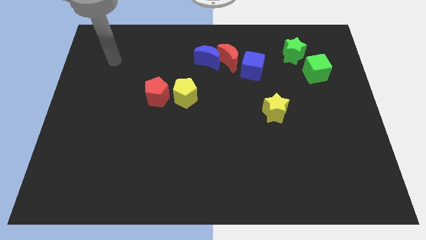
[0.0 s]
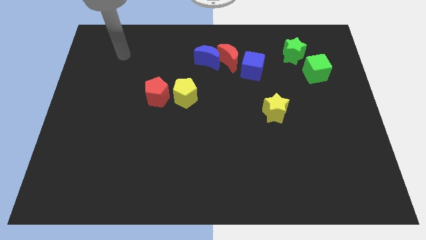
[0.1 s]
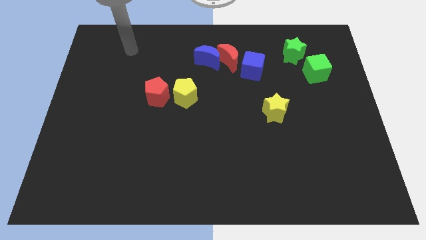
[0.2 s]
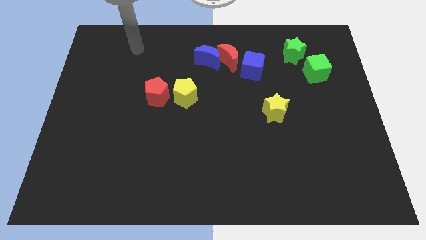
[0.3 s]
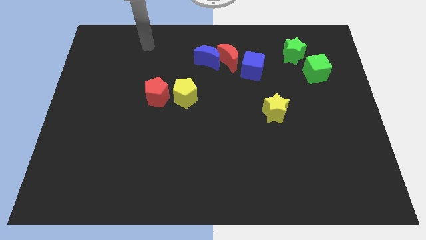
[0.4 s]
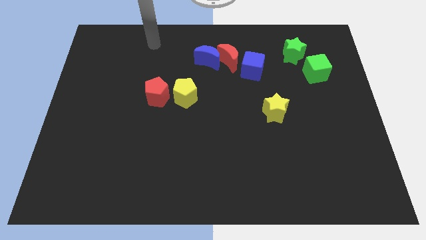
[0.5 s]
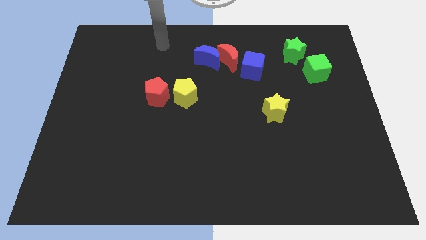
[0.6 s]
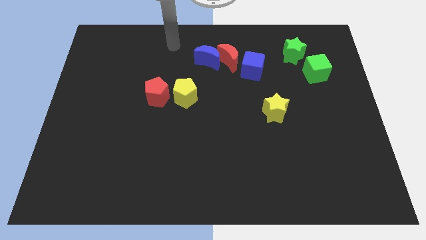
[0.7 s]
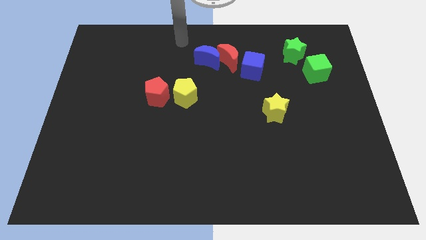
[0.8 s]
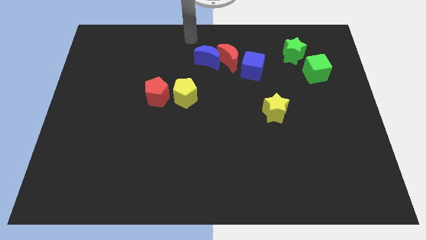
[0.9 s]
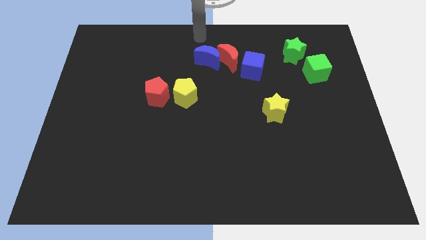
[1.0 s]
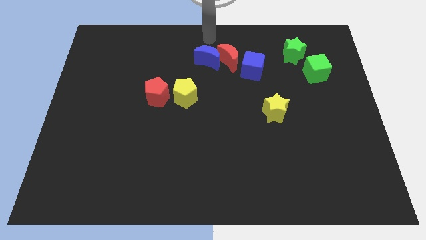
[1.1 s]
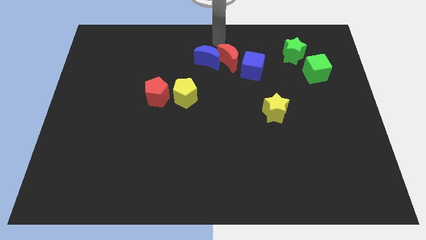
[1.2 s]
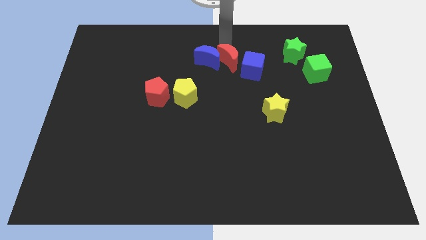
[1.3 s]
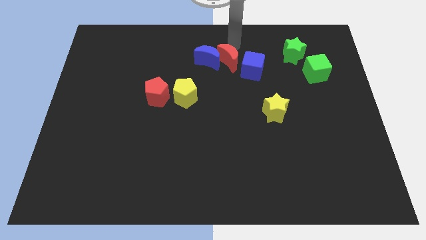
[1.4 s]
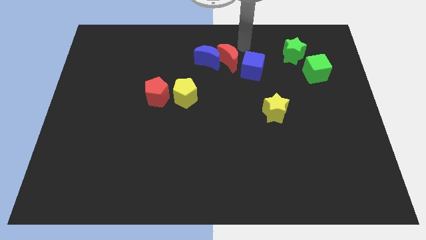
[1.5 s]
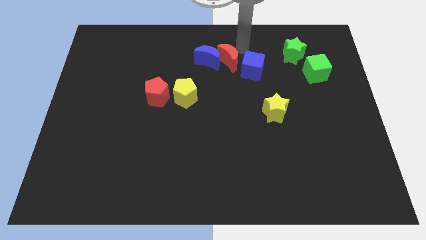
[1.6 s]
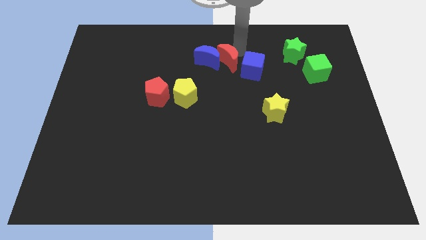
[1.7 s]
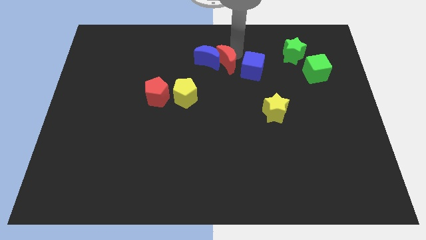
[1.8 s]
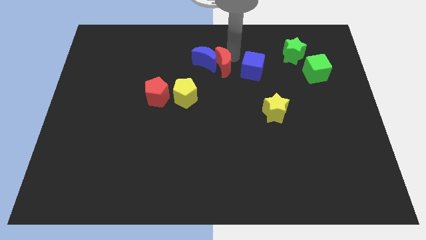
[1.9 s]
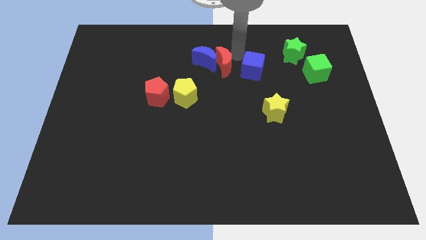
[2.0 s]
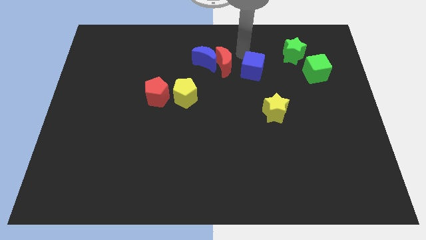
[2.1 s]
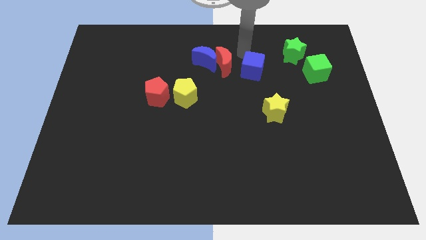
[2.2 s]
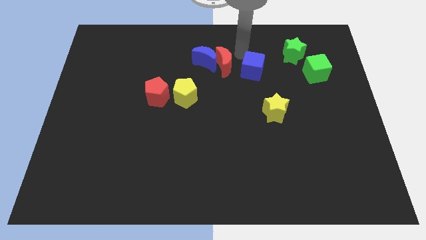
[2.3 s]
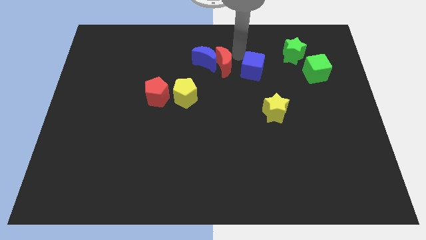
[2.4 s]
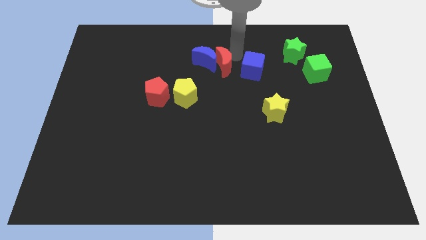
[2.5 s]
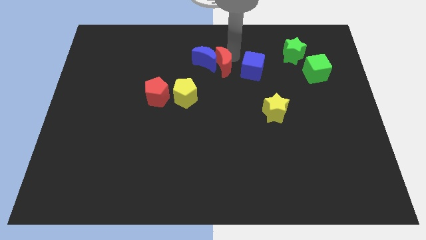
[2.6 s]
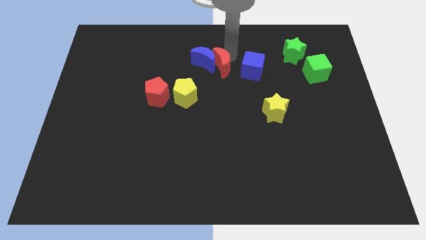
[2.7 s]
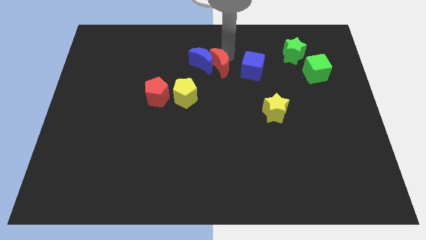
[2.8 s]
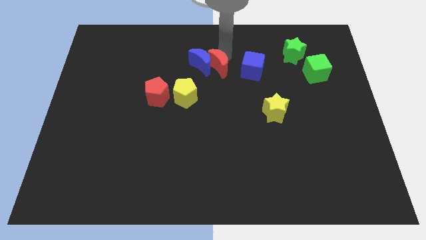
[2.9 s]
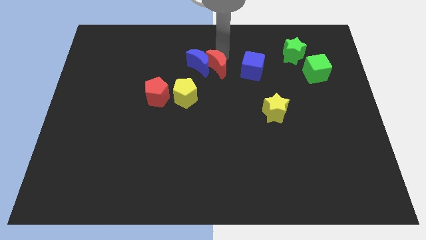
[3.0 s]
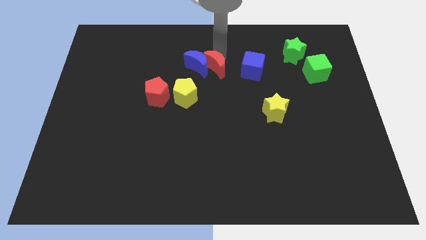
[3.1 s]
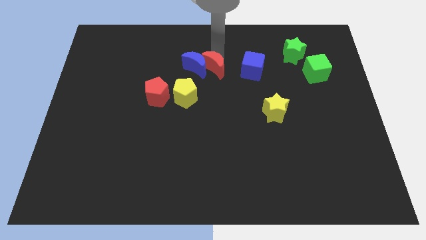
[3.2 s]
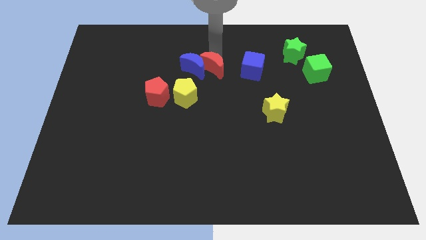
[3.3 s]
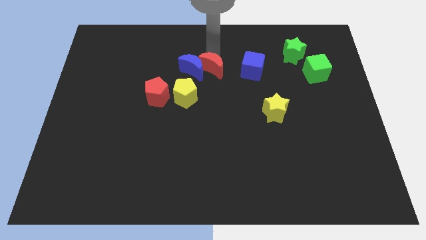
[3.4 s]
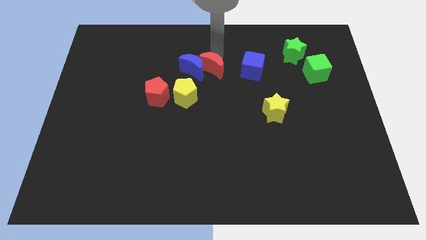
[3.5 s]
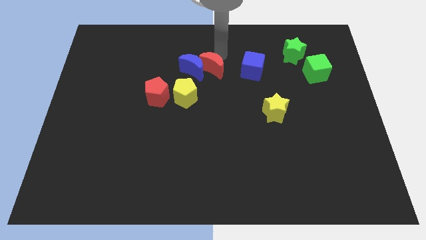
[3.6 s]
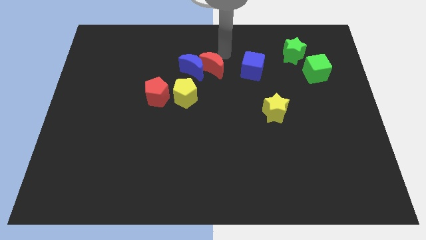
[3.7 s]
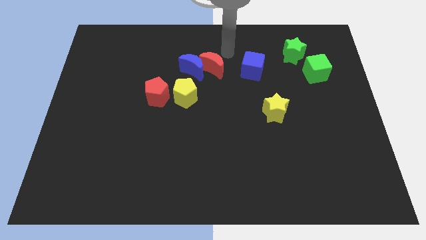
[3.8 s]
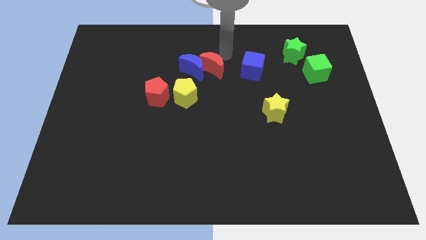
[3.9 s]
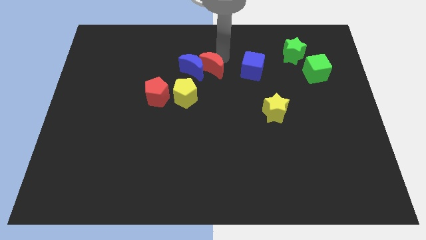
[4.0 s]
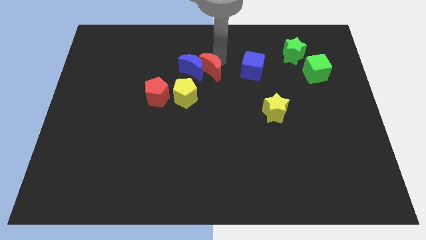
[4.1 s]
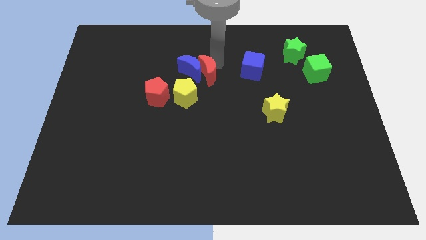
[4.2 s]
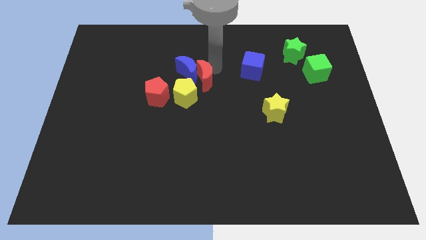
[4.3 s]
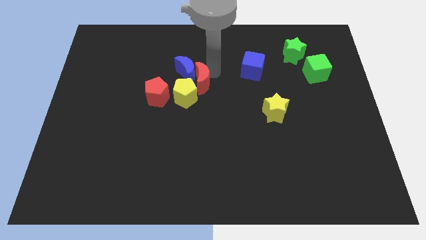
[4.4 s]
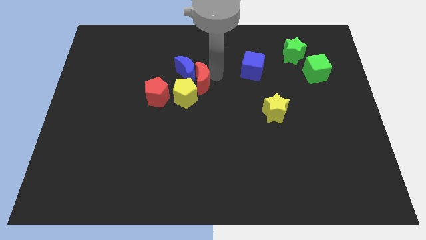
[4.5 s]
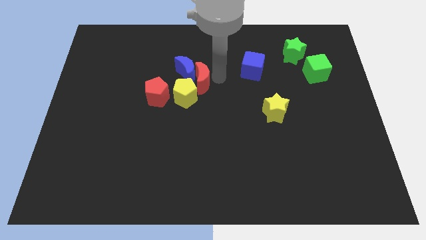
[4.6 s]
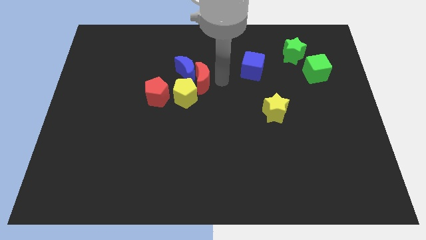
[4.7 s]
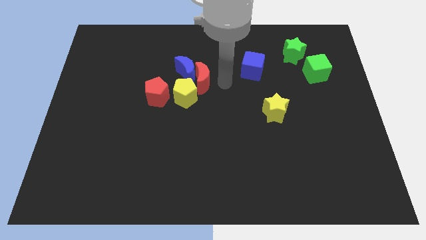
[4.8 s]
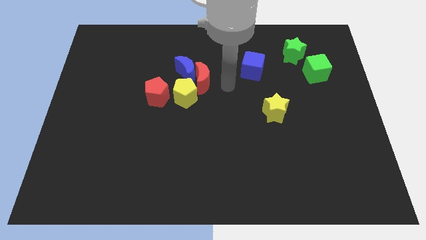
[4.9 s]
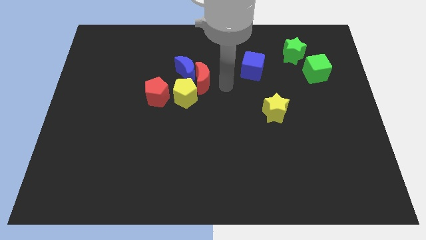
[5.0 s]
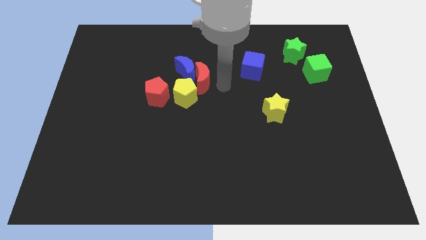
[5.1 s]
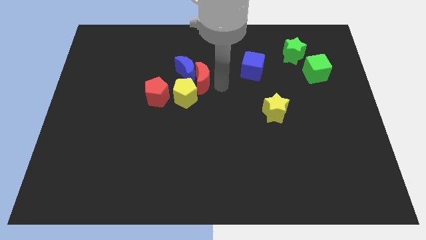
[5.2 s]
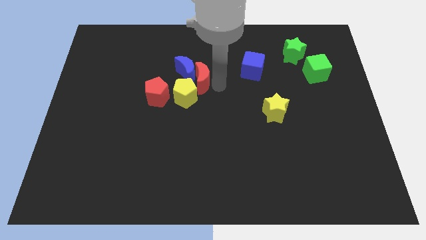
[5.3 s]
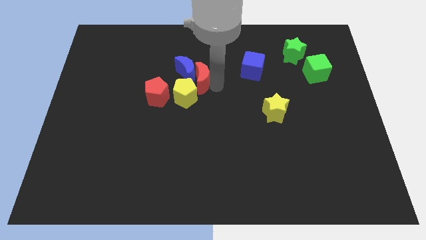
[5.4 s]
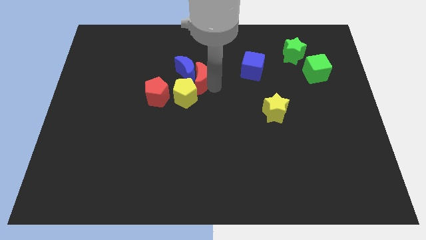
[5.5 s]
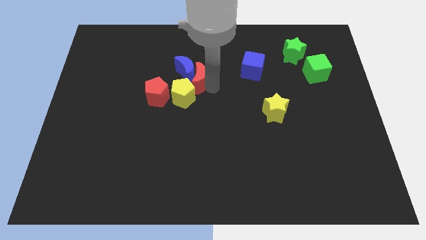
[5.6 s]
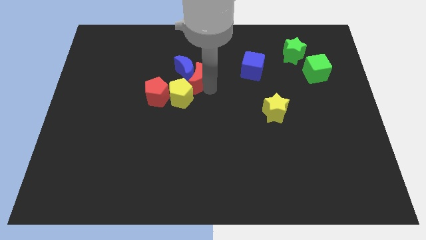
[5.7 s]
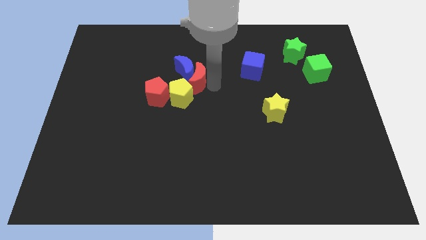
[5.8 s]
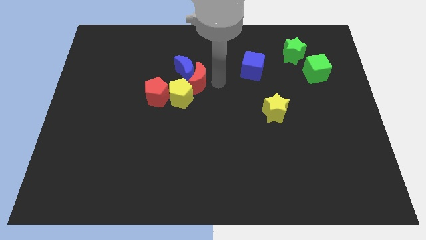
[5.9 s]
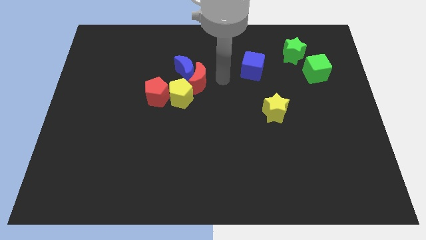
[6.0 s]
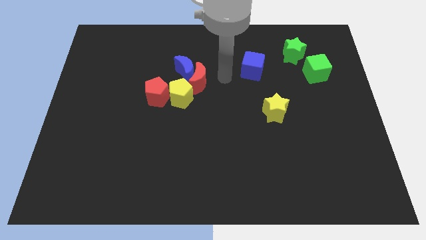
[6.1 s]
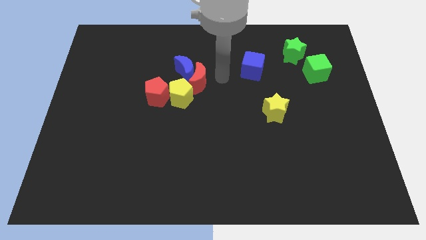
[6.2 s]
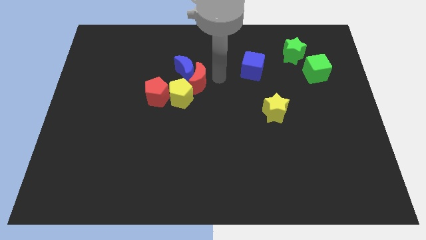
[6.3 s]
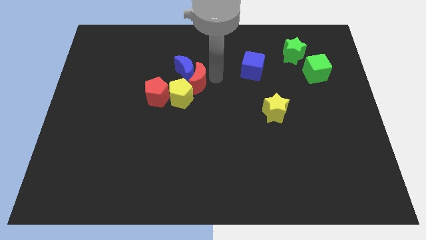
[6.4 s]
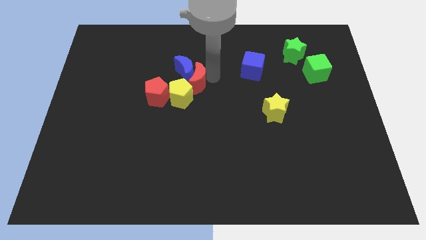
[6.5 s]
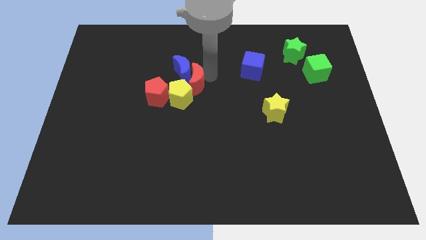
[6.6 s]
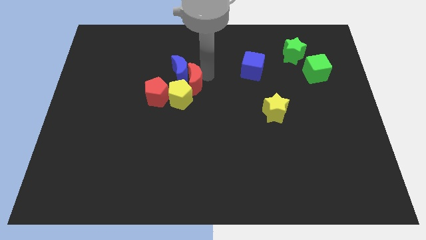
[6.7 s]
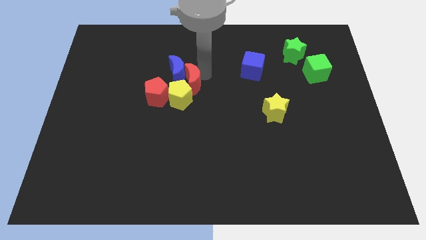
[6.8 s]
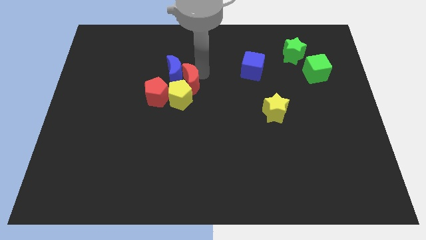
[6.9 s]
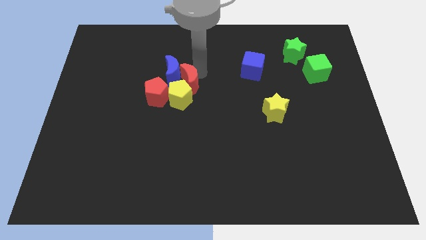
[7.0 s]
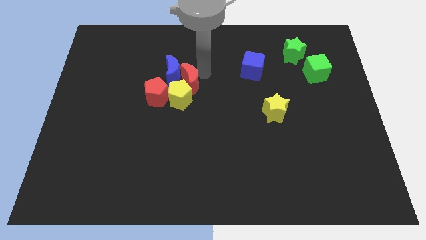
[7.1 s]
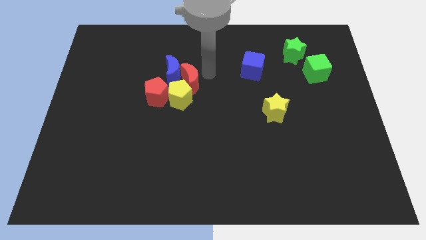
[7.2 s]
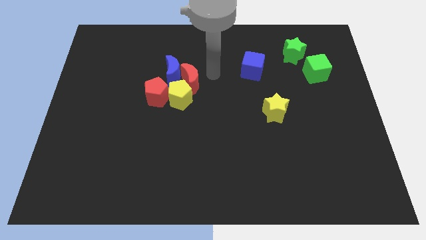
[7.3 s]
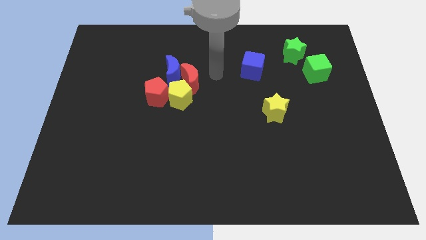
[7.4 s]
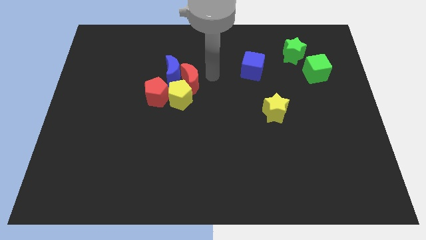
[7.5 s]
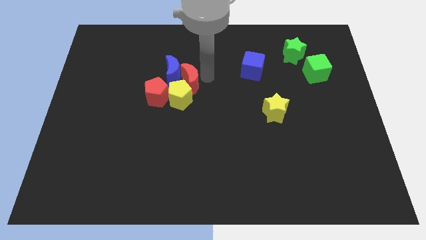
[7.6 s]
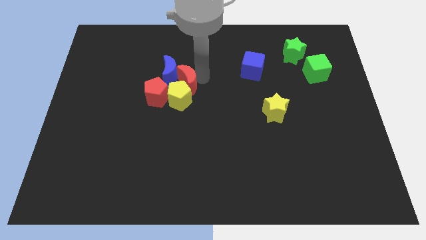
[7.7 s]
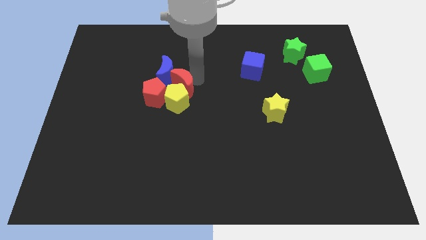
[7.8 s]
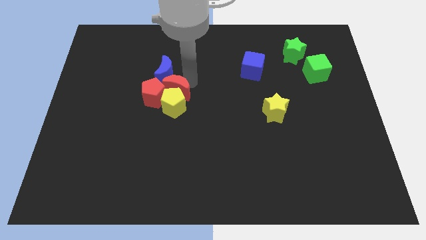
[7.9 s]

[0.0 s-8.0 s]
move the red moon next to the red pentagon
